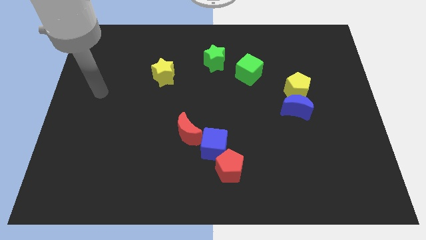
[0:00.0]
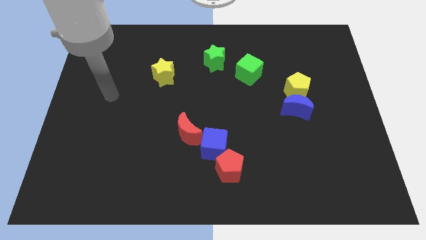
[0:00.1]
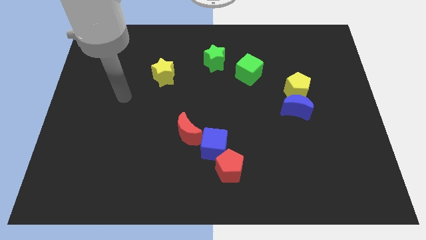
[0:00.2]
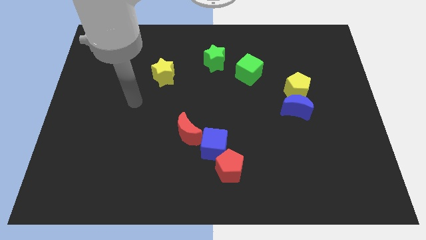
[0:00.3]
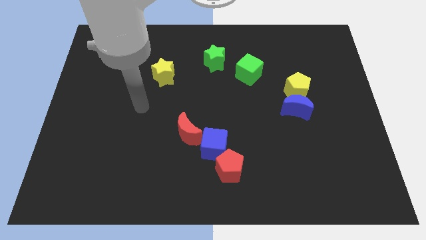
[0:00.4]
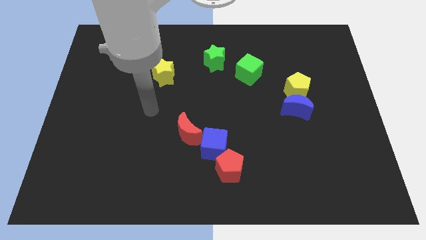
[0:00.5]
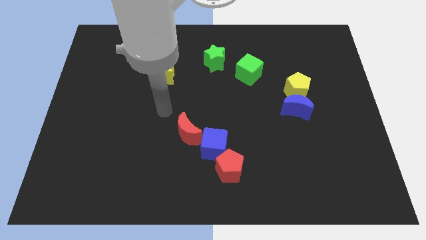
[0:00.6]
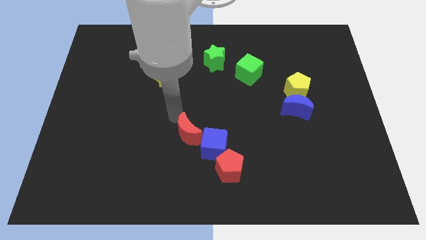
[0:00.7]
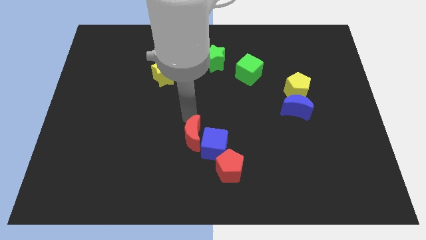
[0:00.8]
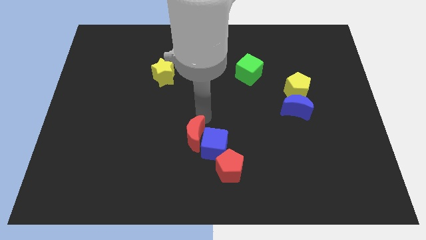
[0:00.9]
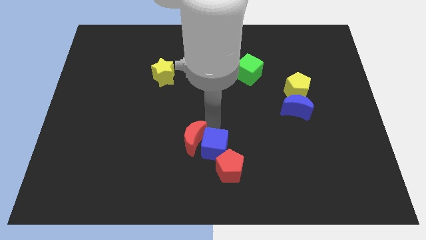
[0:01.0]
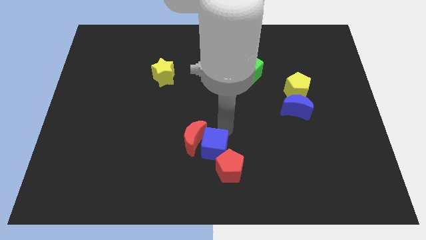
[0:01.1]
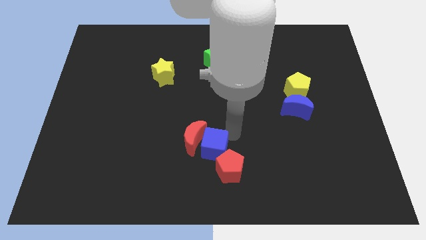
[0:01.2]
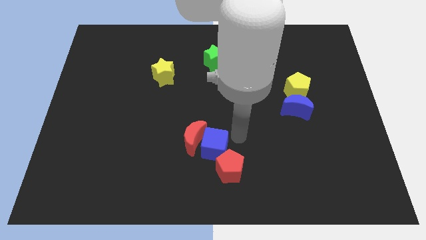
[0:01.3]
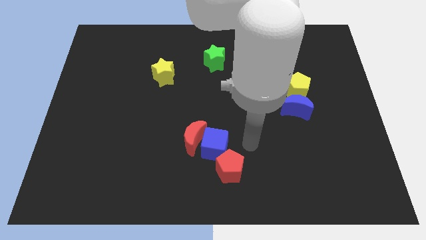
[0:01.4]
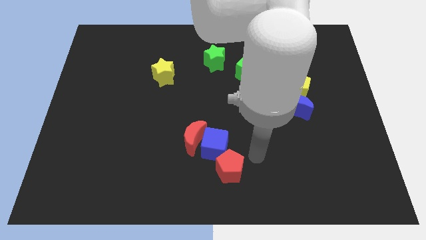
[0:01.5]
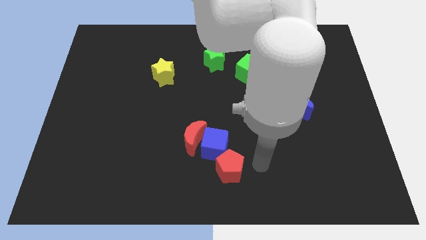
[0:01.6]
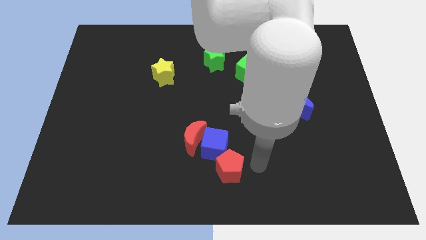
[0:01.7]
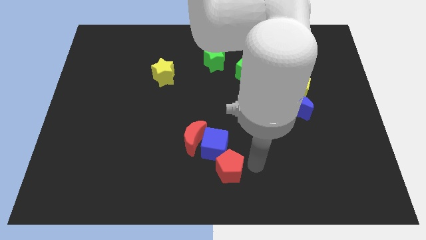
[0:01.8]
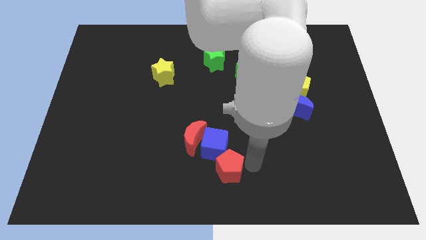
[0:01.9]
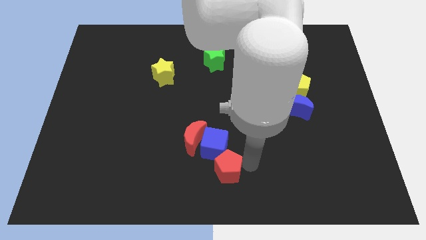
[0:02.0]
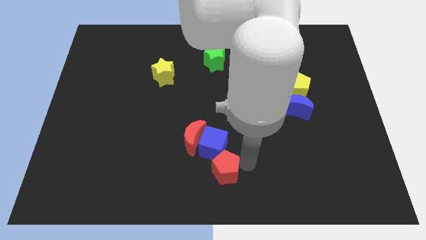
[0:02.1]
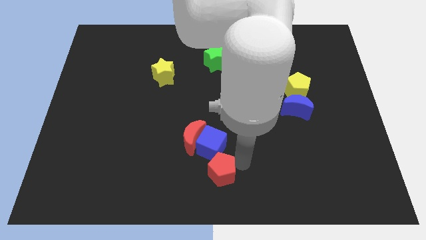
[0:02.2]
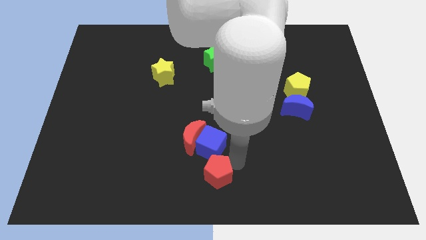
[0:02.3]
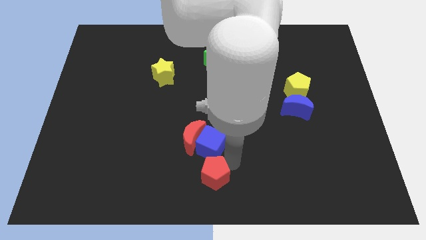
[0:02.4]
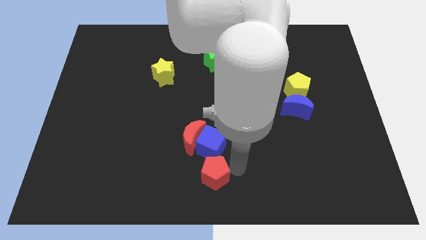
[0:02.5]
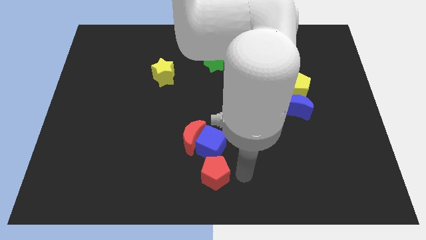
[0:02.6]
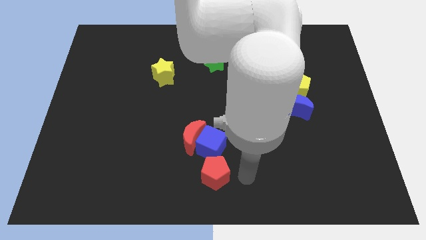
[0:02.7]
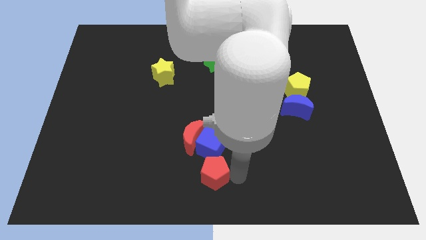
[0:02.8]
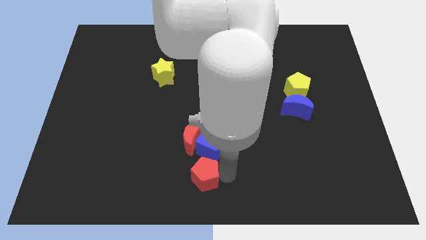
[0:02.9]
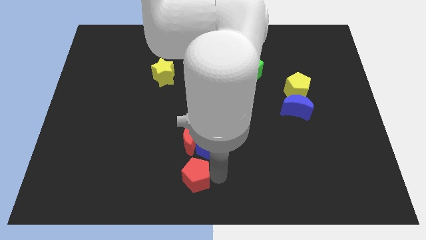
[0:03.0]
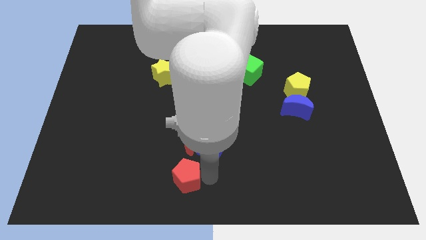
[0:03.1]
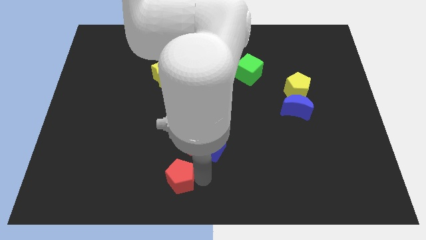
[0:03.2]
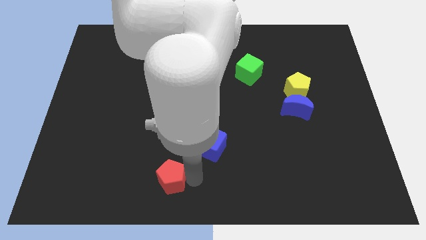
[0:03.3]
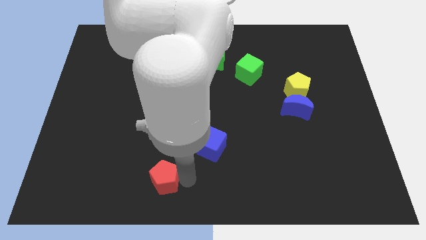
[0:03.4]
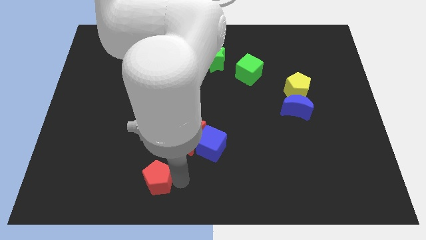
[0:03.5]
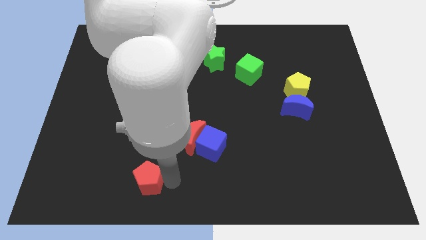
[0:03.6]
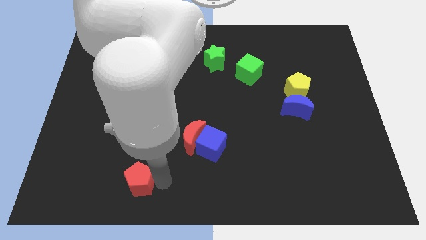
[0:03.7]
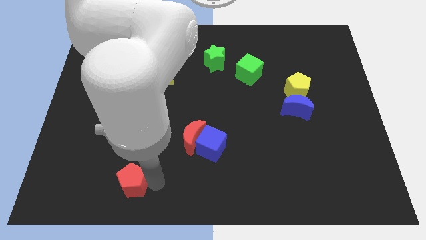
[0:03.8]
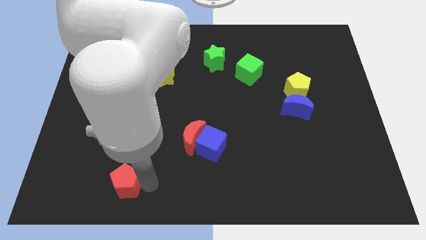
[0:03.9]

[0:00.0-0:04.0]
move the red pentagon left

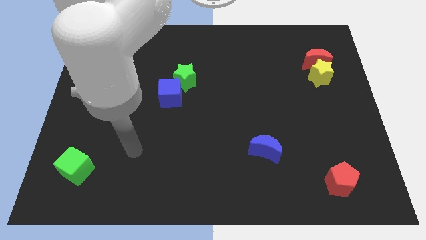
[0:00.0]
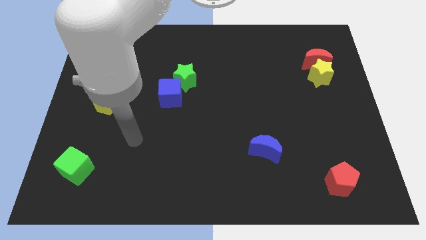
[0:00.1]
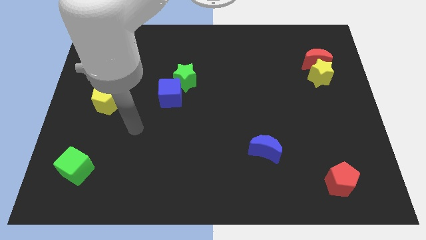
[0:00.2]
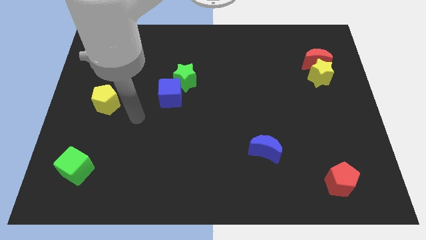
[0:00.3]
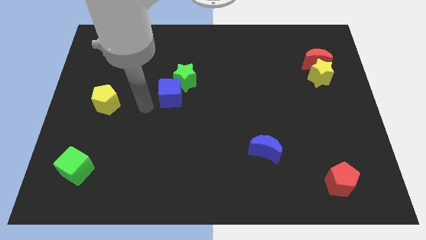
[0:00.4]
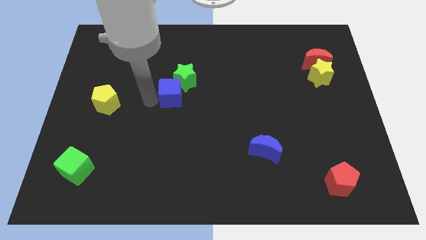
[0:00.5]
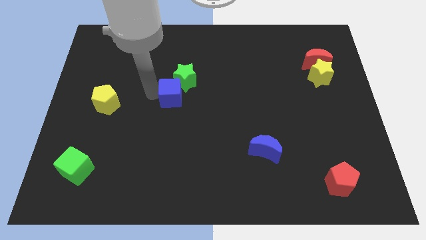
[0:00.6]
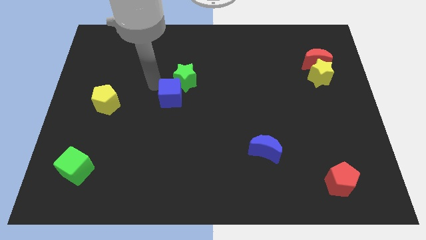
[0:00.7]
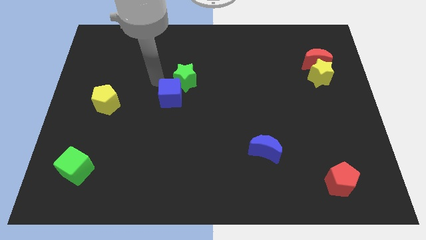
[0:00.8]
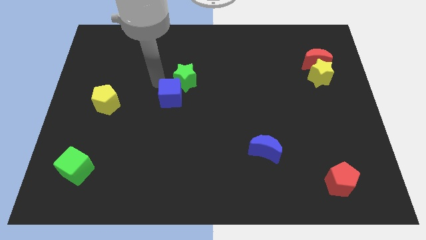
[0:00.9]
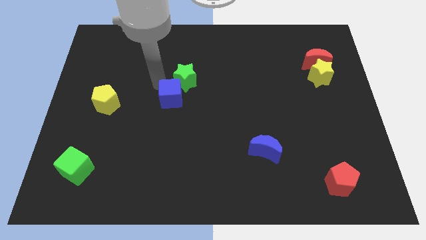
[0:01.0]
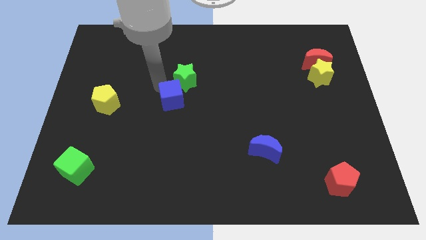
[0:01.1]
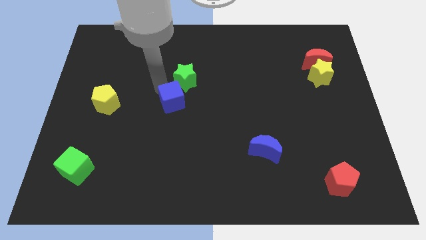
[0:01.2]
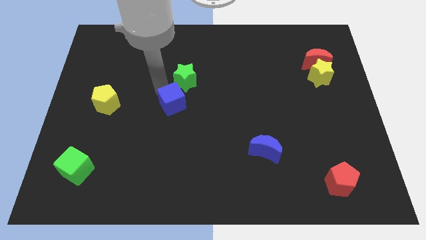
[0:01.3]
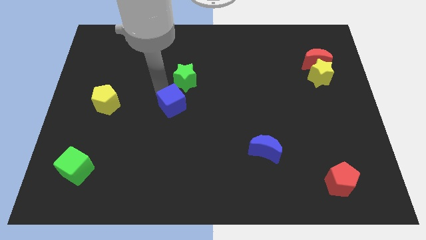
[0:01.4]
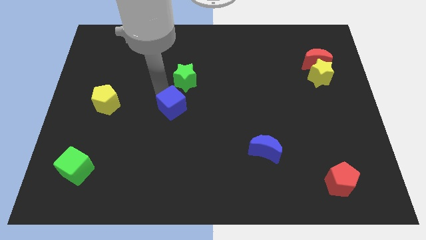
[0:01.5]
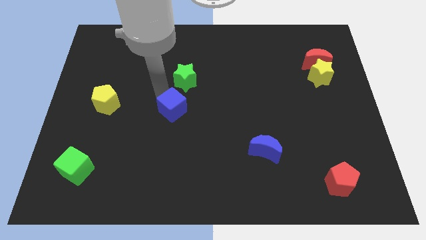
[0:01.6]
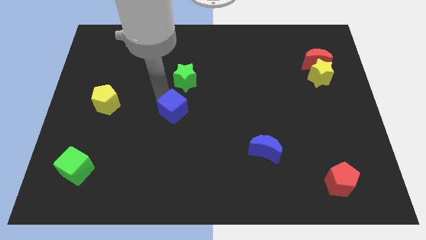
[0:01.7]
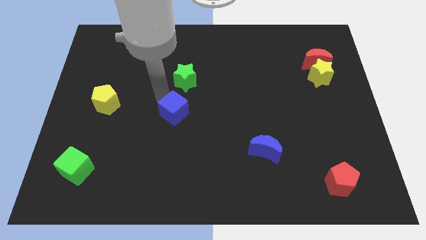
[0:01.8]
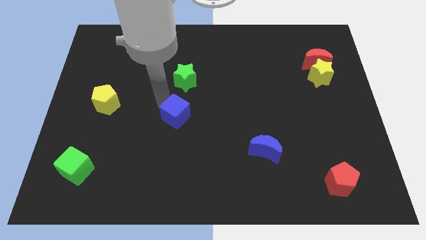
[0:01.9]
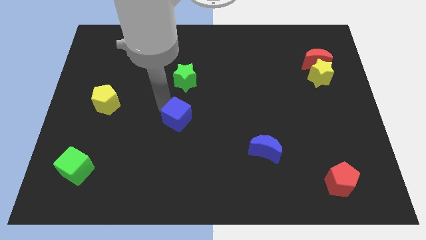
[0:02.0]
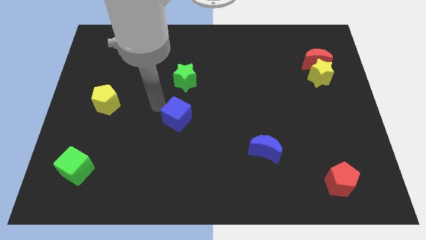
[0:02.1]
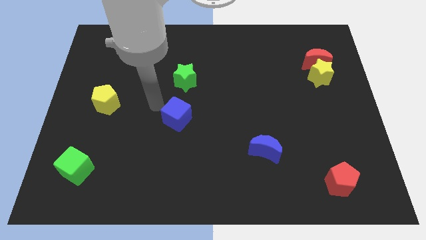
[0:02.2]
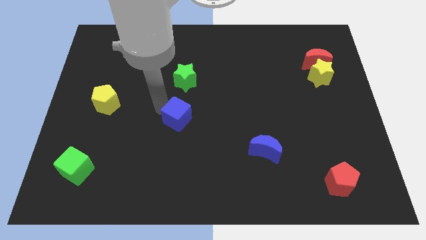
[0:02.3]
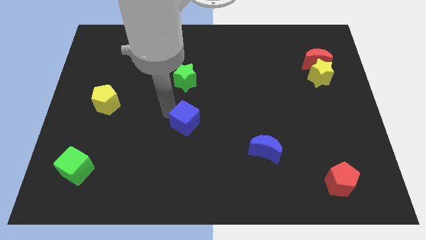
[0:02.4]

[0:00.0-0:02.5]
slightly push the blue cube diagonally downwards and to the right

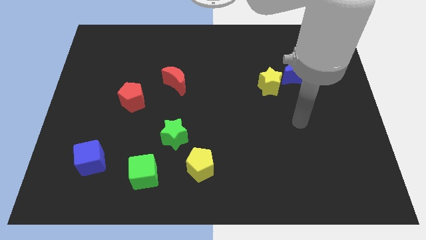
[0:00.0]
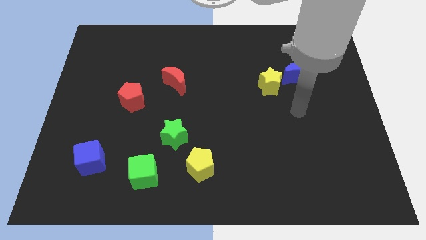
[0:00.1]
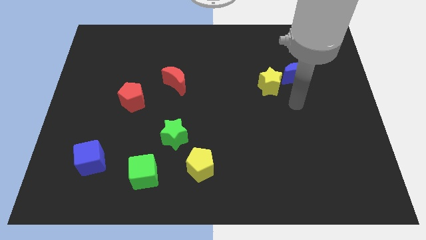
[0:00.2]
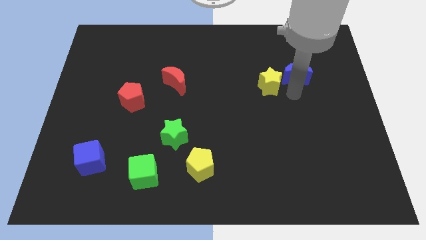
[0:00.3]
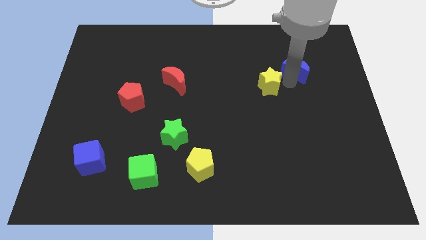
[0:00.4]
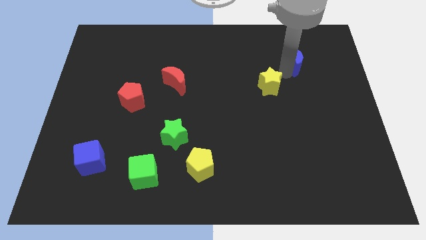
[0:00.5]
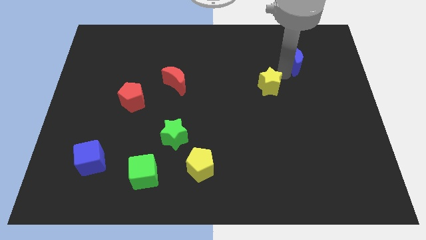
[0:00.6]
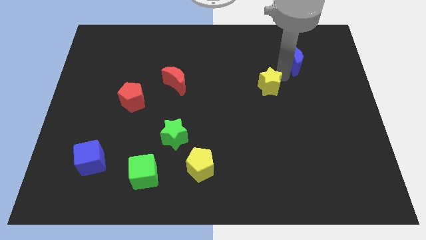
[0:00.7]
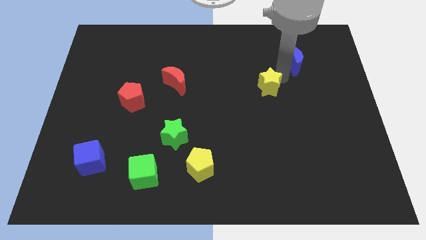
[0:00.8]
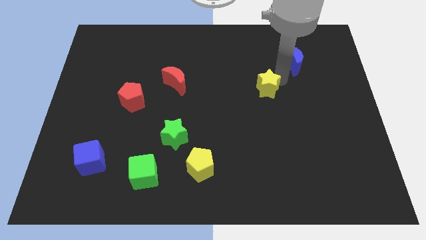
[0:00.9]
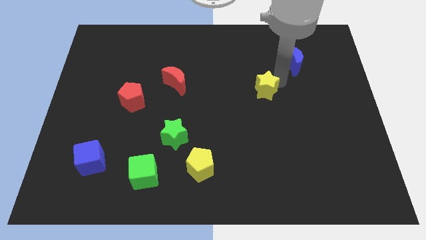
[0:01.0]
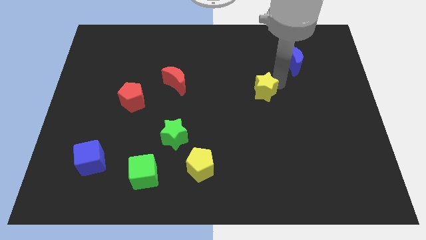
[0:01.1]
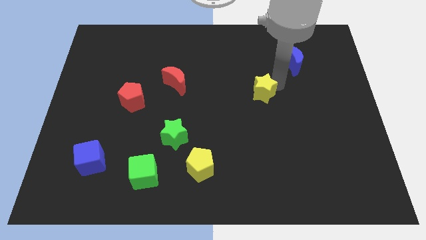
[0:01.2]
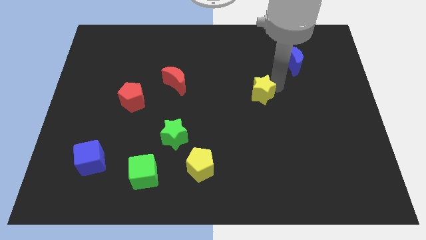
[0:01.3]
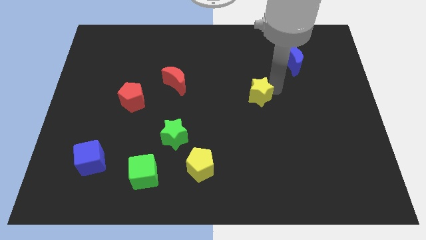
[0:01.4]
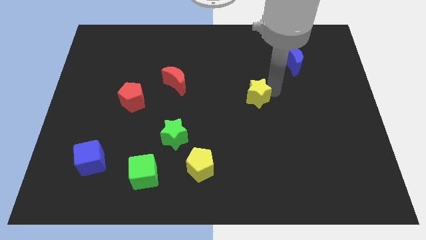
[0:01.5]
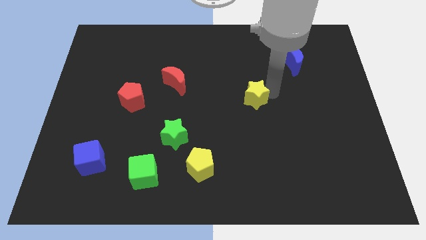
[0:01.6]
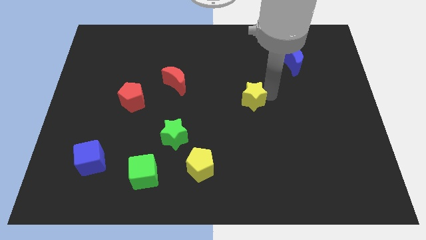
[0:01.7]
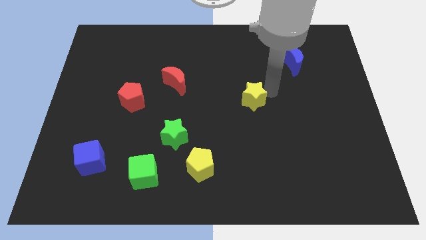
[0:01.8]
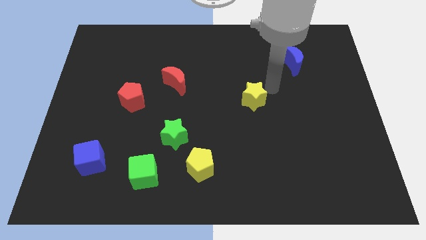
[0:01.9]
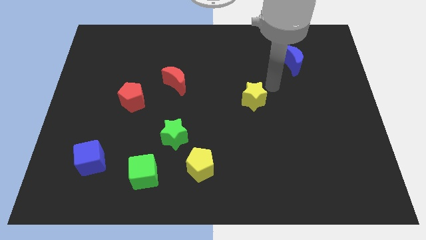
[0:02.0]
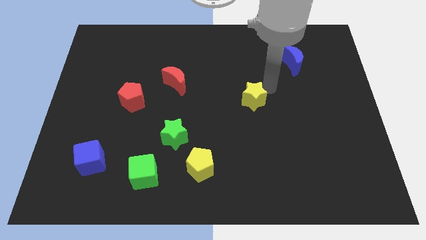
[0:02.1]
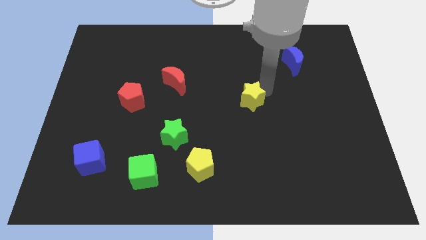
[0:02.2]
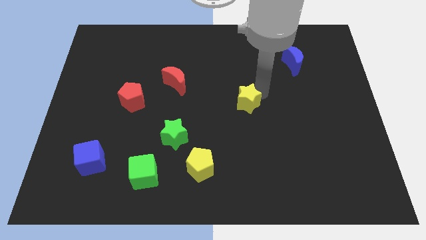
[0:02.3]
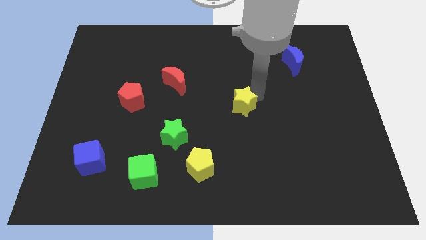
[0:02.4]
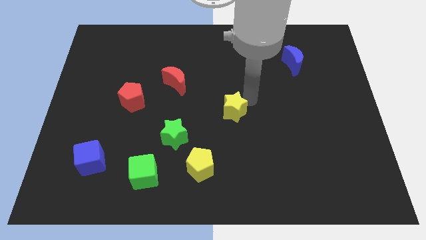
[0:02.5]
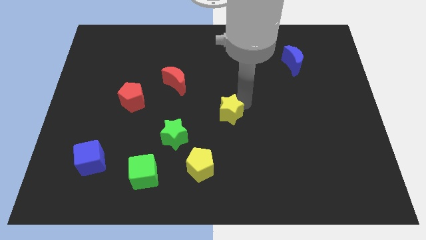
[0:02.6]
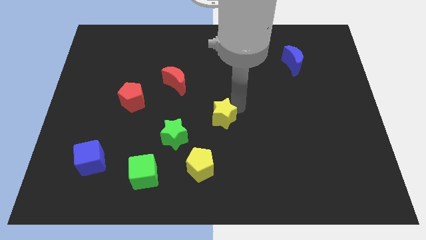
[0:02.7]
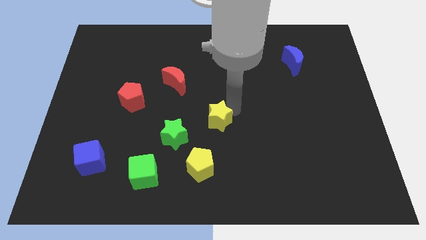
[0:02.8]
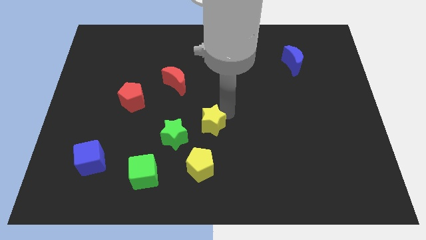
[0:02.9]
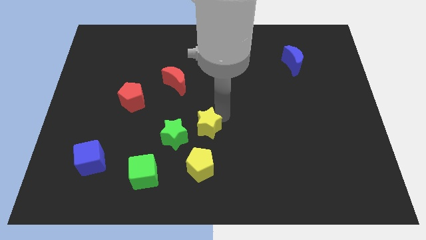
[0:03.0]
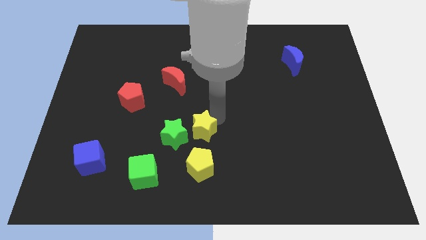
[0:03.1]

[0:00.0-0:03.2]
push the yellow star diagonally downwards and to the left
